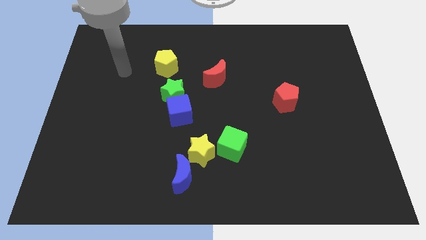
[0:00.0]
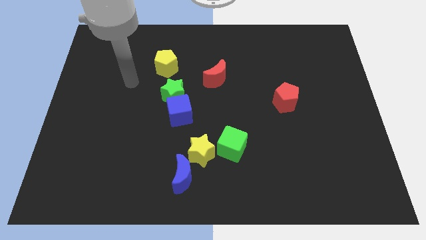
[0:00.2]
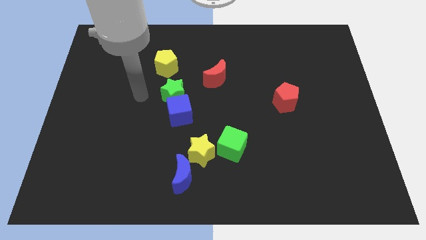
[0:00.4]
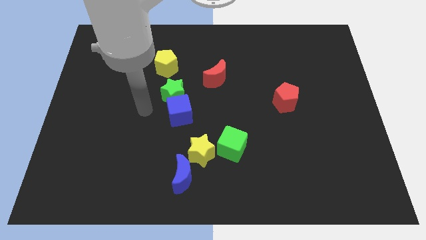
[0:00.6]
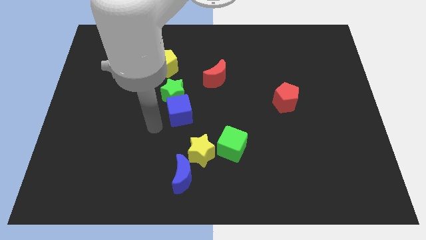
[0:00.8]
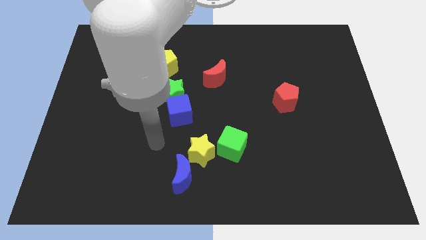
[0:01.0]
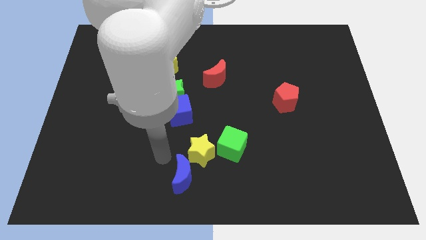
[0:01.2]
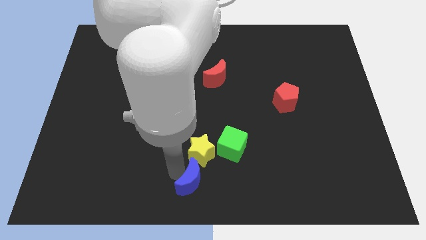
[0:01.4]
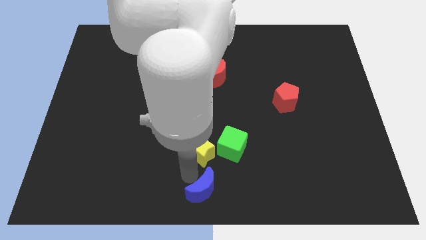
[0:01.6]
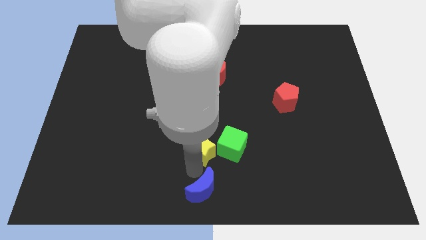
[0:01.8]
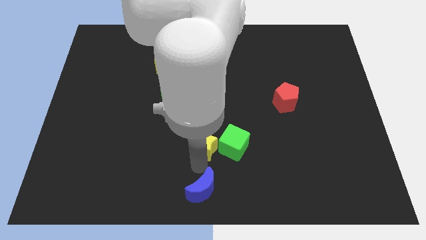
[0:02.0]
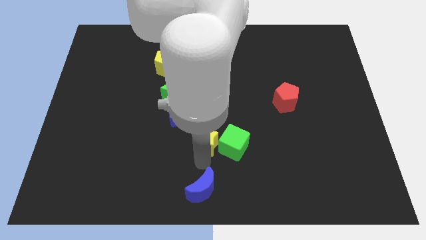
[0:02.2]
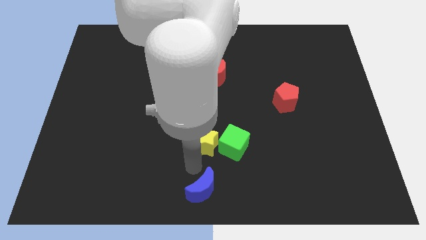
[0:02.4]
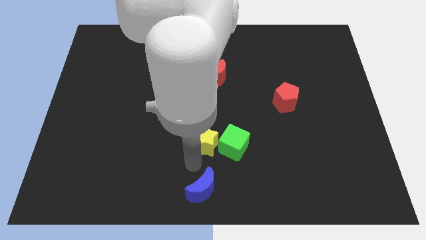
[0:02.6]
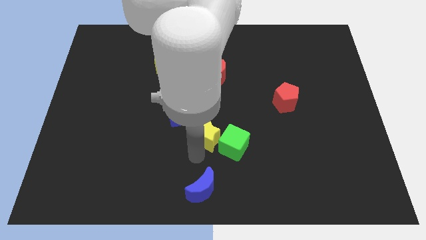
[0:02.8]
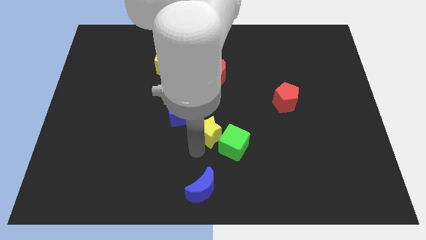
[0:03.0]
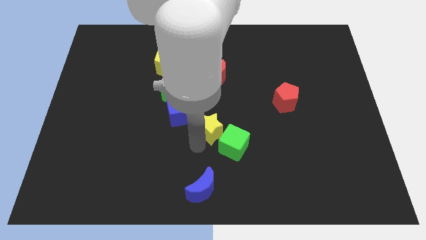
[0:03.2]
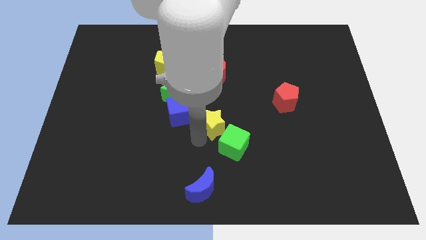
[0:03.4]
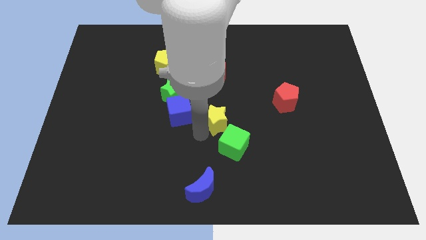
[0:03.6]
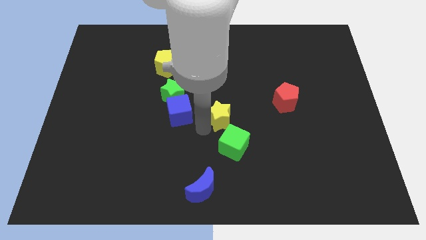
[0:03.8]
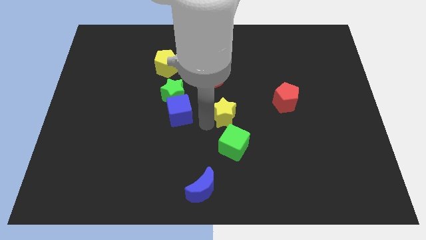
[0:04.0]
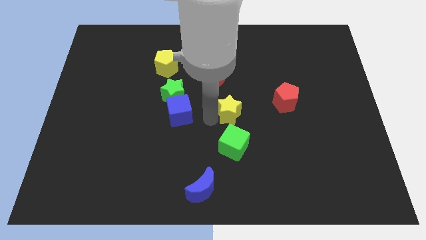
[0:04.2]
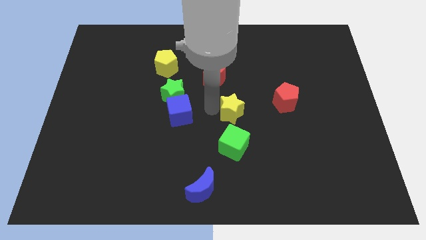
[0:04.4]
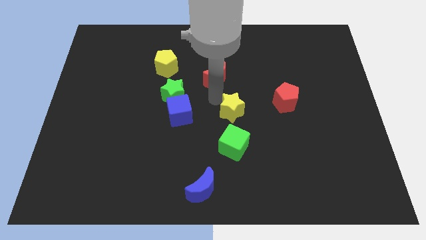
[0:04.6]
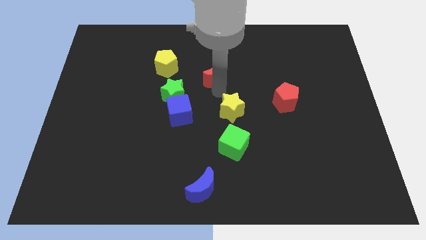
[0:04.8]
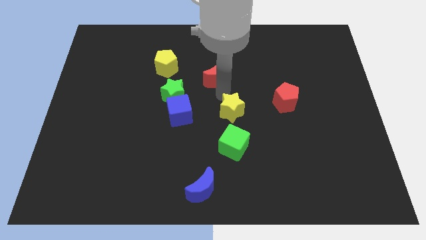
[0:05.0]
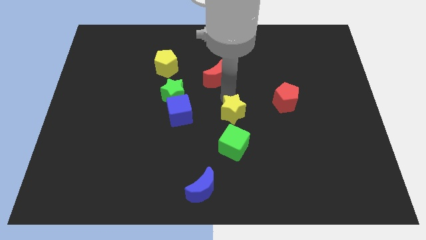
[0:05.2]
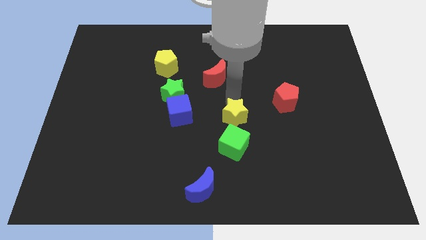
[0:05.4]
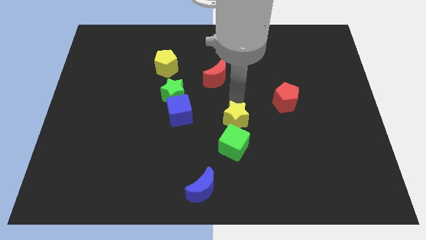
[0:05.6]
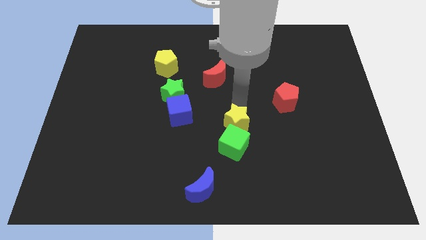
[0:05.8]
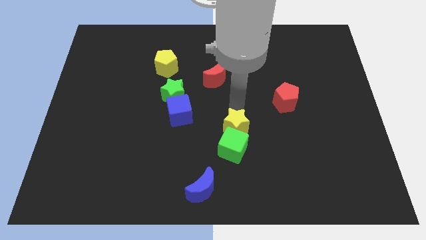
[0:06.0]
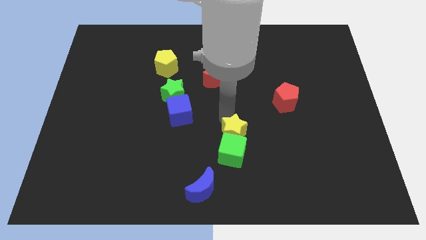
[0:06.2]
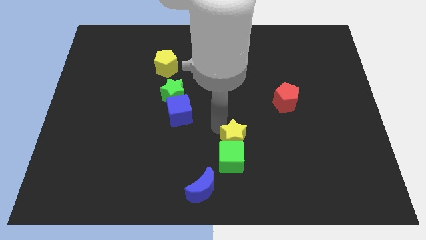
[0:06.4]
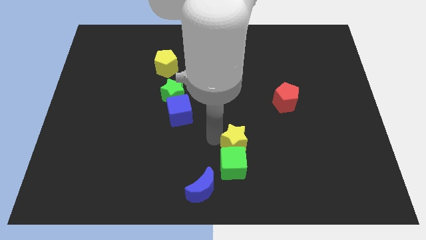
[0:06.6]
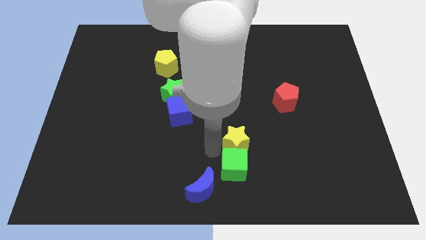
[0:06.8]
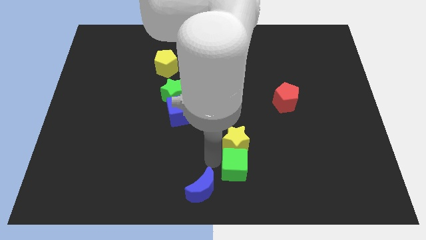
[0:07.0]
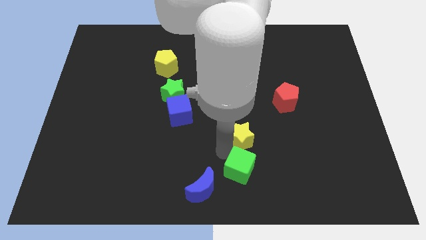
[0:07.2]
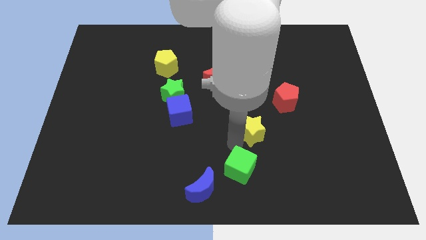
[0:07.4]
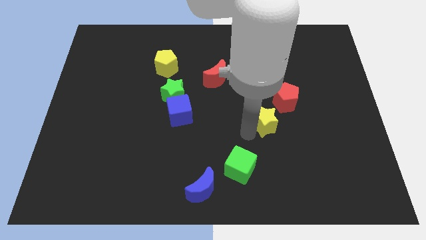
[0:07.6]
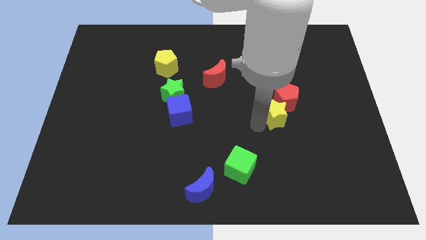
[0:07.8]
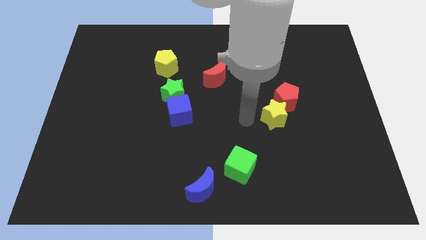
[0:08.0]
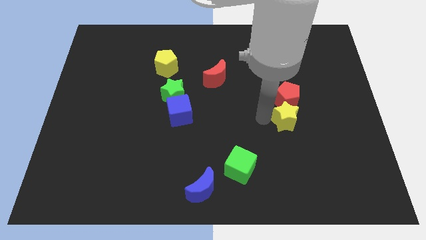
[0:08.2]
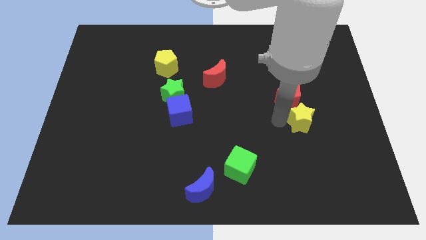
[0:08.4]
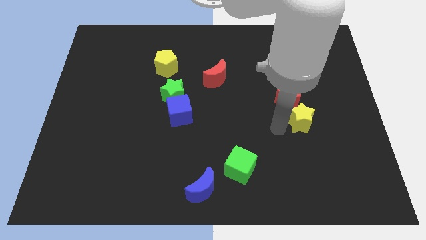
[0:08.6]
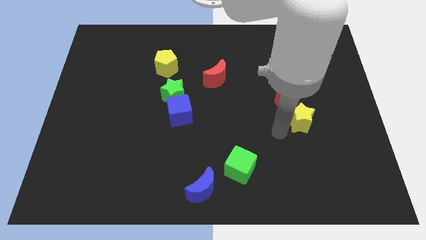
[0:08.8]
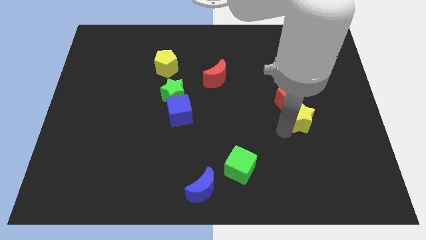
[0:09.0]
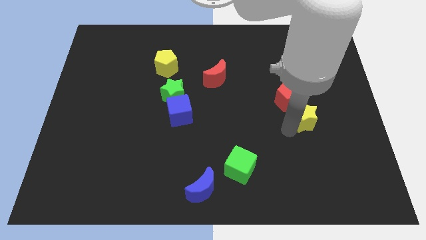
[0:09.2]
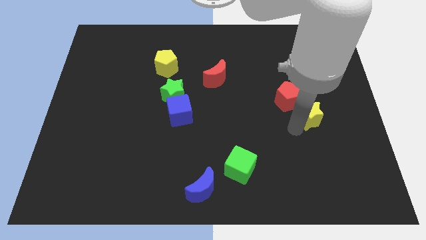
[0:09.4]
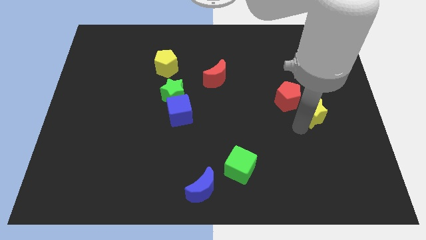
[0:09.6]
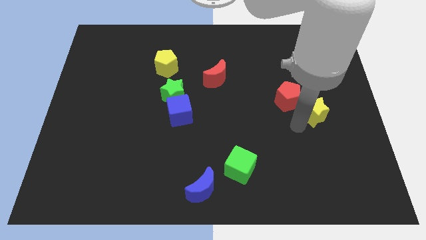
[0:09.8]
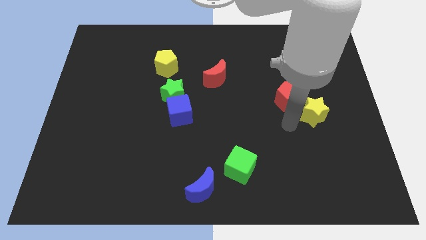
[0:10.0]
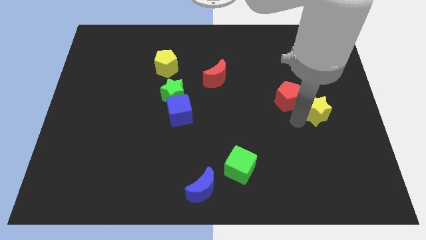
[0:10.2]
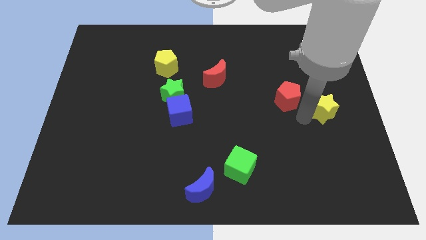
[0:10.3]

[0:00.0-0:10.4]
put the yellow star to the center right
